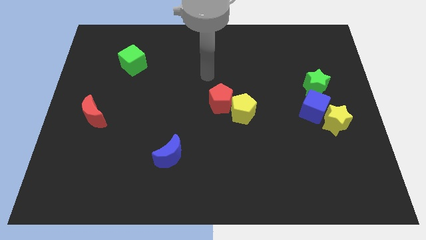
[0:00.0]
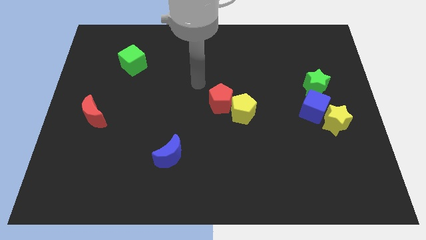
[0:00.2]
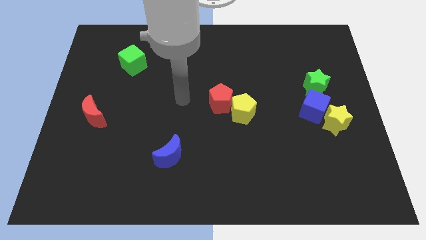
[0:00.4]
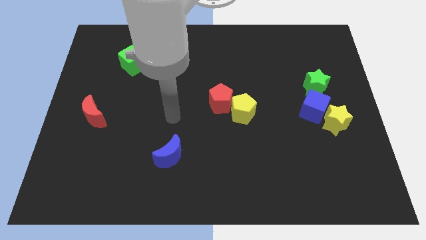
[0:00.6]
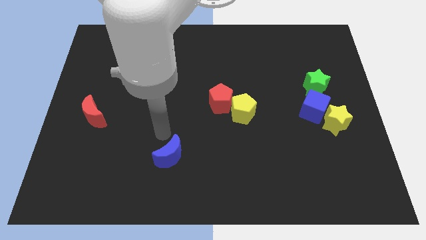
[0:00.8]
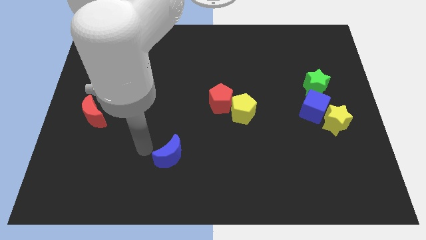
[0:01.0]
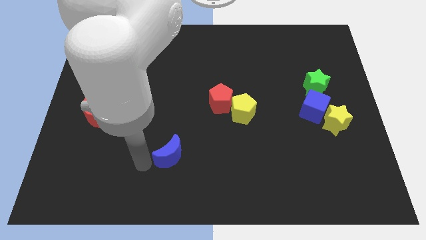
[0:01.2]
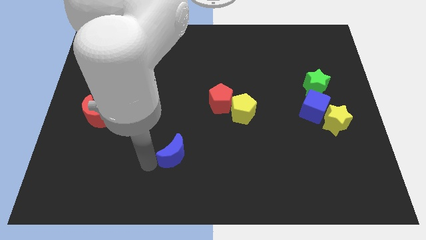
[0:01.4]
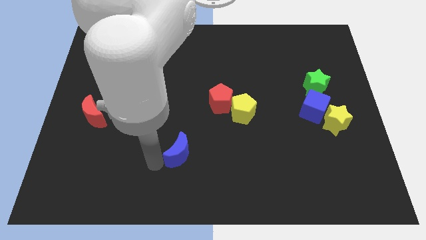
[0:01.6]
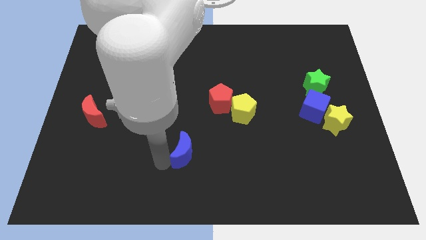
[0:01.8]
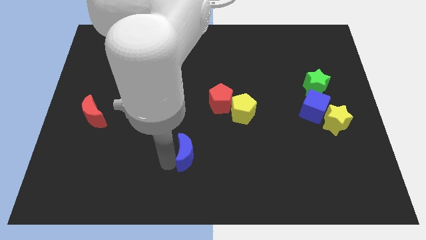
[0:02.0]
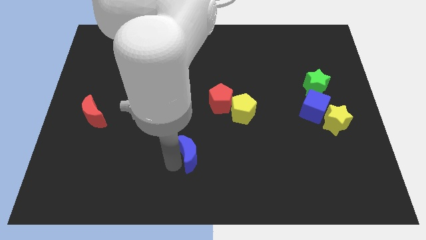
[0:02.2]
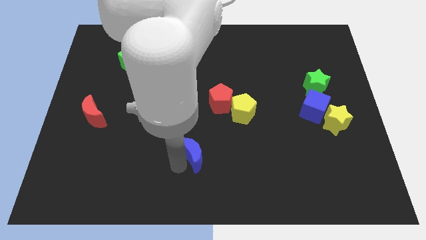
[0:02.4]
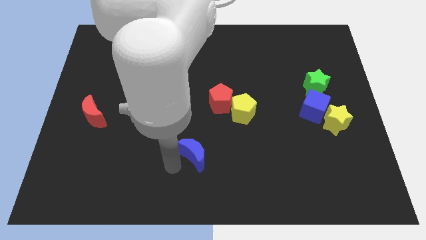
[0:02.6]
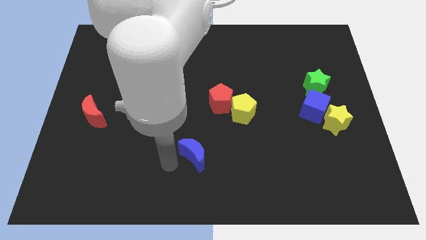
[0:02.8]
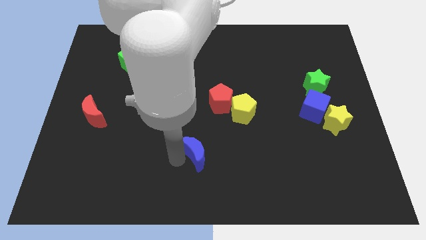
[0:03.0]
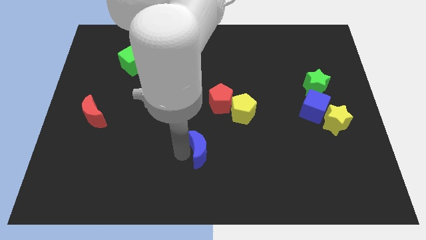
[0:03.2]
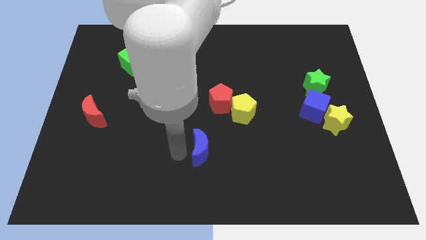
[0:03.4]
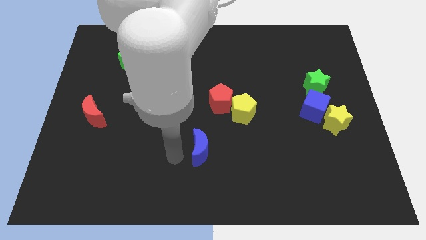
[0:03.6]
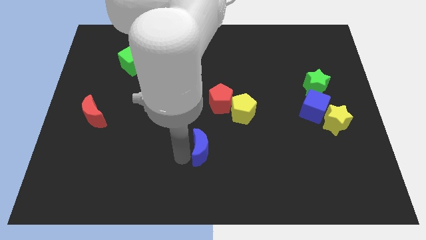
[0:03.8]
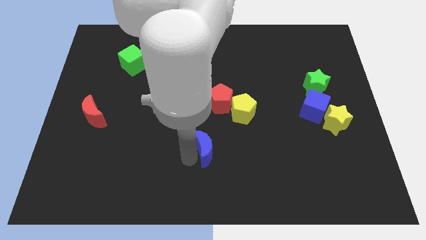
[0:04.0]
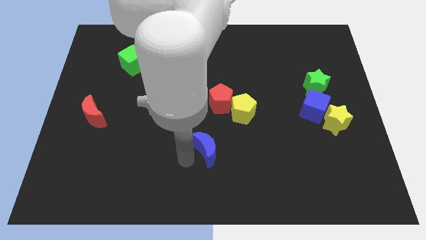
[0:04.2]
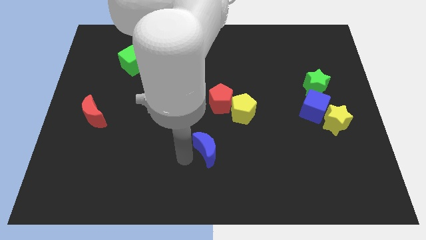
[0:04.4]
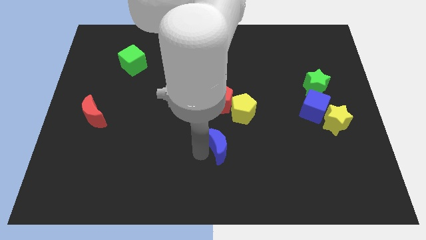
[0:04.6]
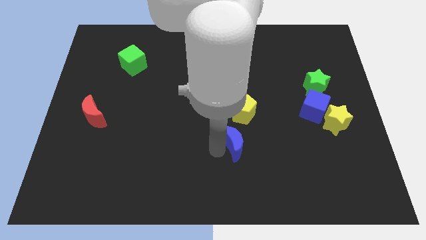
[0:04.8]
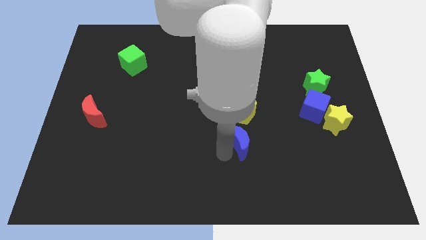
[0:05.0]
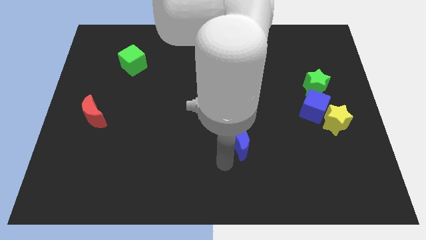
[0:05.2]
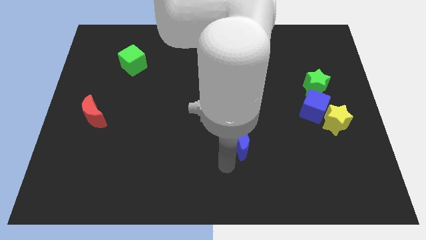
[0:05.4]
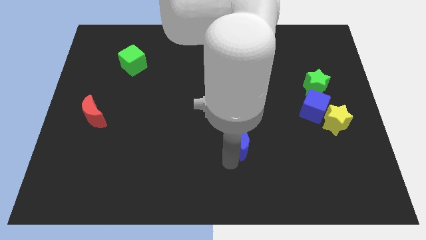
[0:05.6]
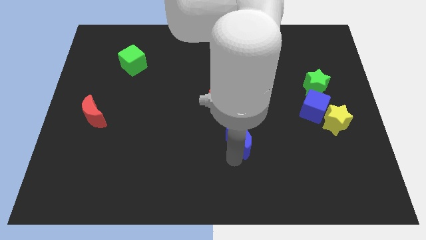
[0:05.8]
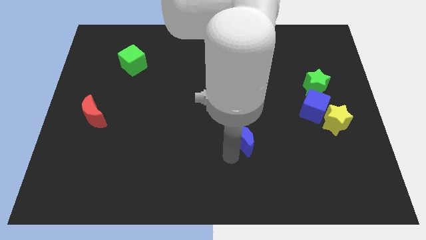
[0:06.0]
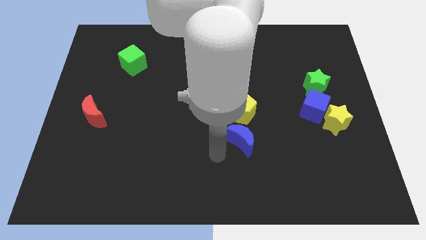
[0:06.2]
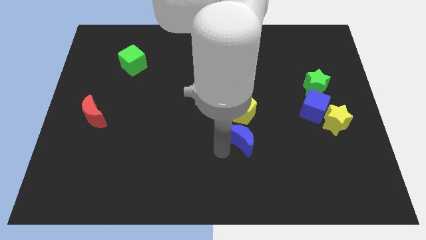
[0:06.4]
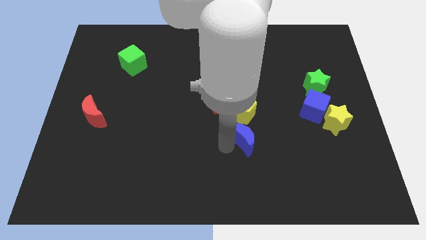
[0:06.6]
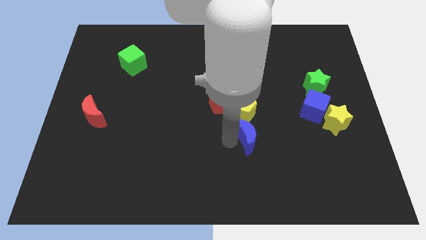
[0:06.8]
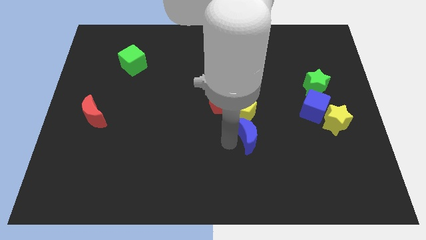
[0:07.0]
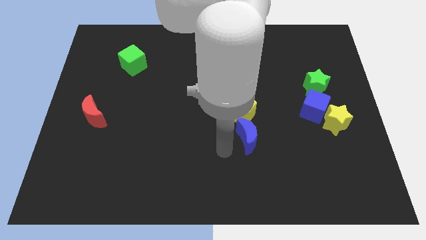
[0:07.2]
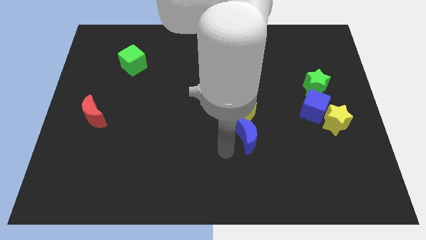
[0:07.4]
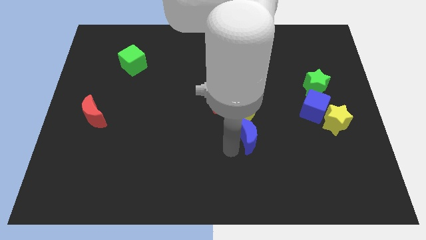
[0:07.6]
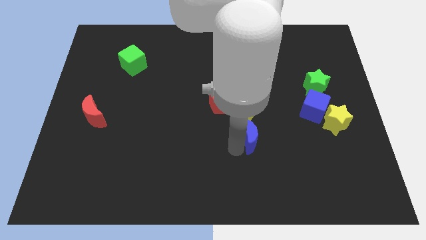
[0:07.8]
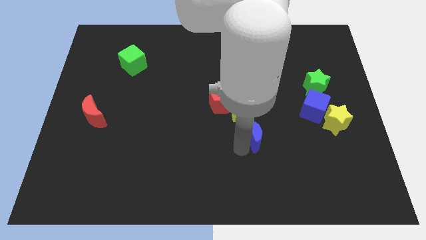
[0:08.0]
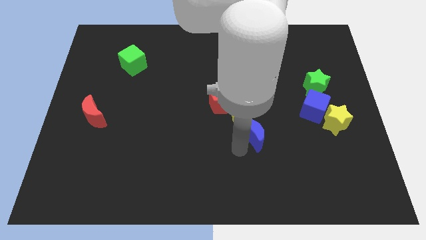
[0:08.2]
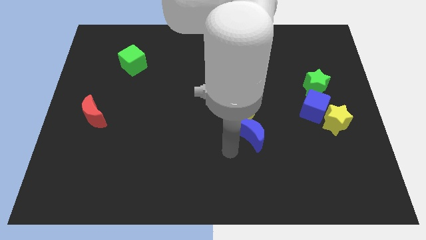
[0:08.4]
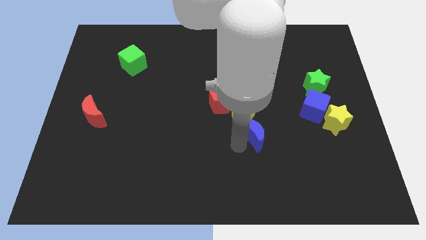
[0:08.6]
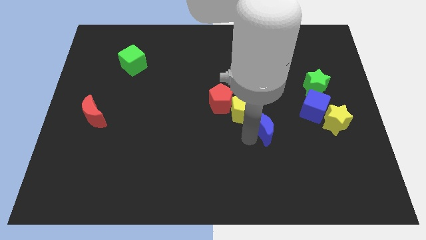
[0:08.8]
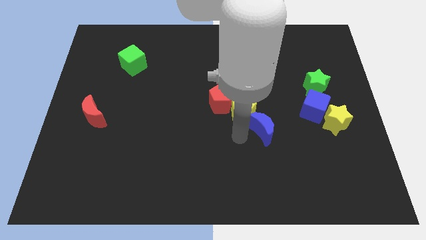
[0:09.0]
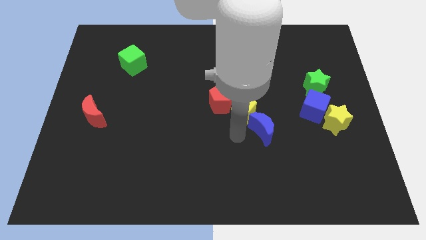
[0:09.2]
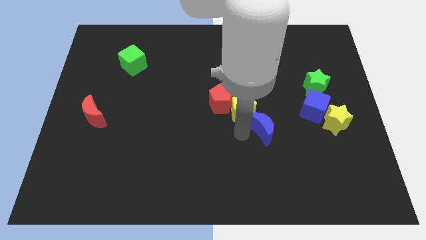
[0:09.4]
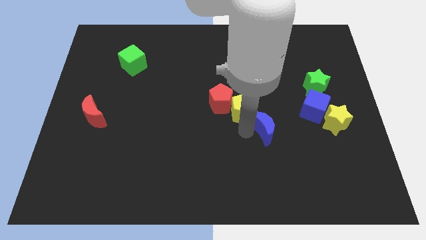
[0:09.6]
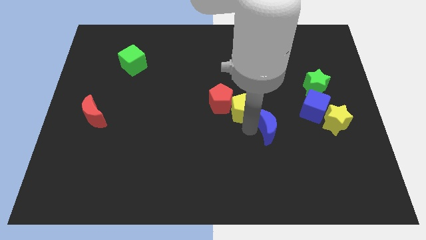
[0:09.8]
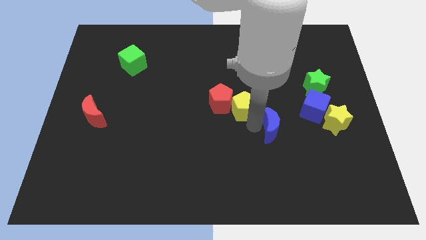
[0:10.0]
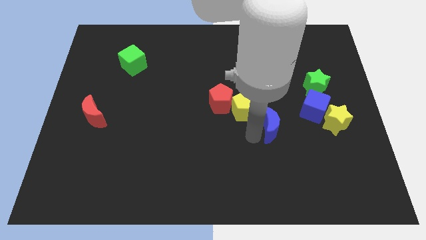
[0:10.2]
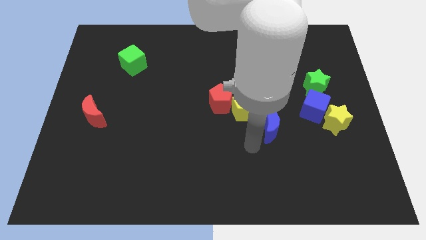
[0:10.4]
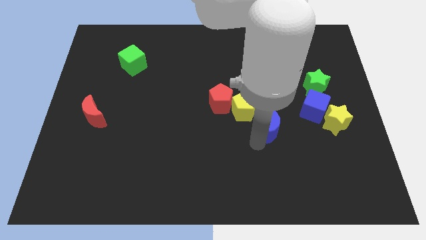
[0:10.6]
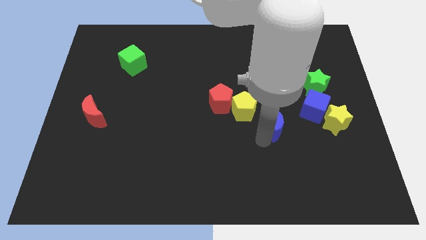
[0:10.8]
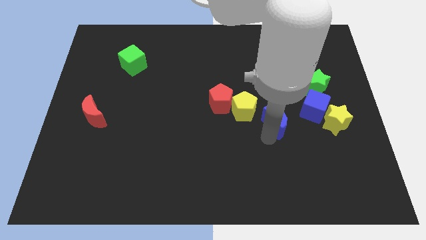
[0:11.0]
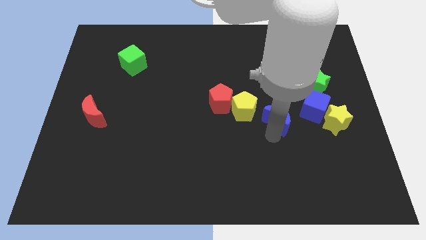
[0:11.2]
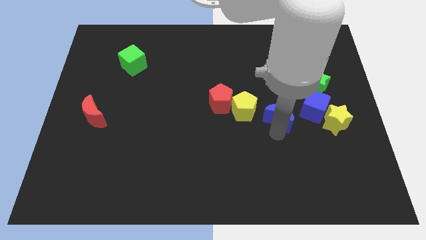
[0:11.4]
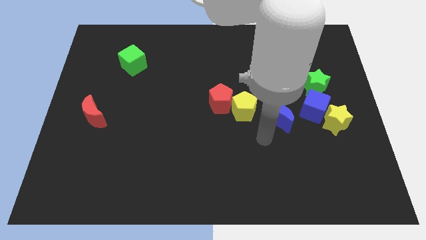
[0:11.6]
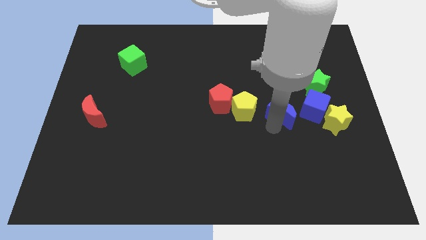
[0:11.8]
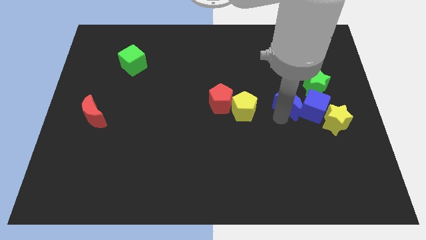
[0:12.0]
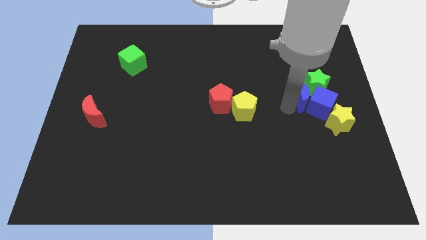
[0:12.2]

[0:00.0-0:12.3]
move the blue moon towards the green star
